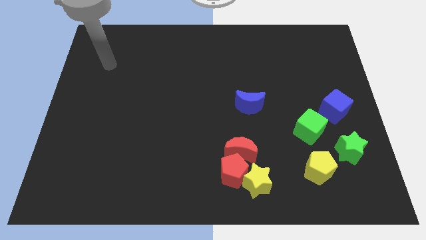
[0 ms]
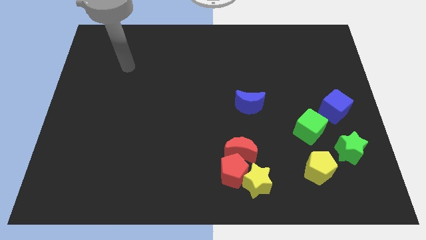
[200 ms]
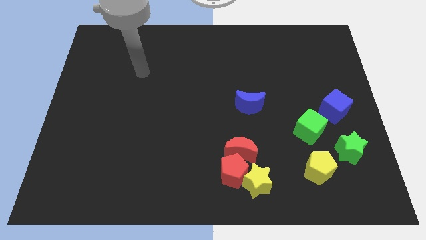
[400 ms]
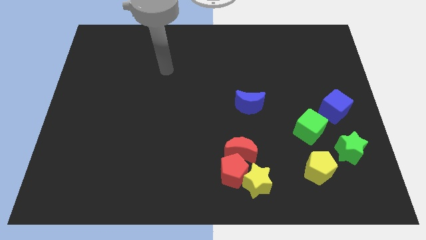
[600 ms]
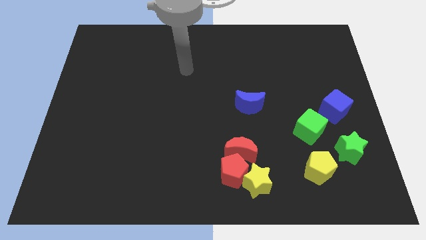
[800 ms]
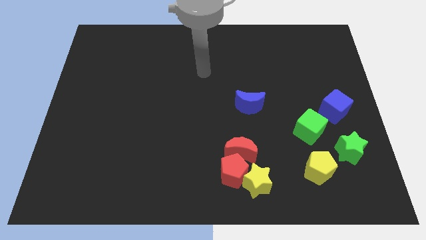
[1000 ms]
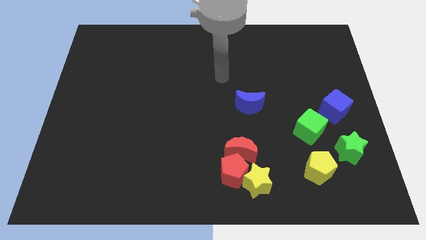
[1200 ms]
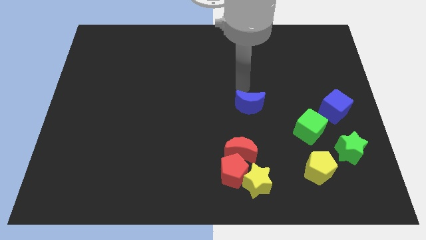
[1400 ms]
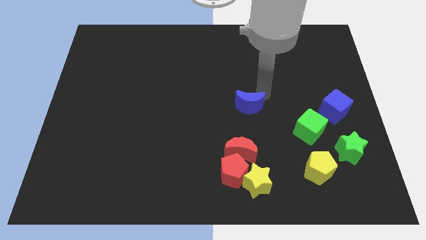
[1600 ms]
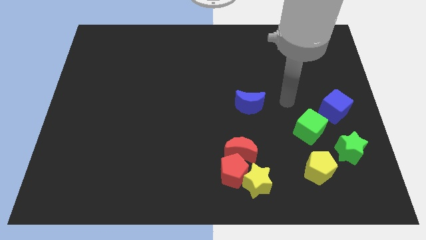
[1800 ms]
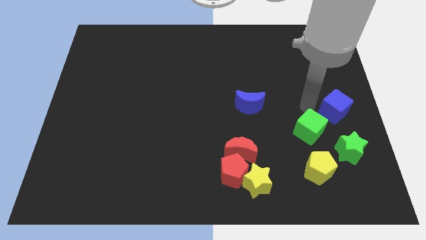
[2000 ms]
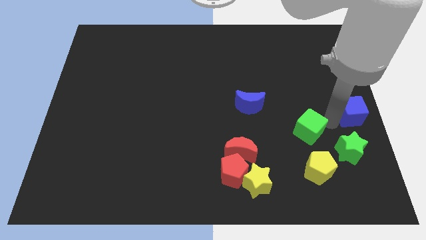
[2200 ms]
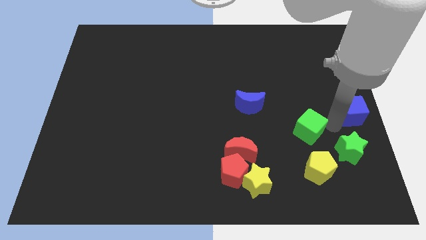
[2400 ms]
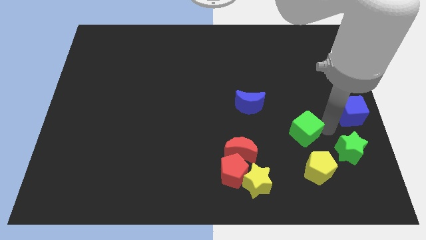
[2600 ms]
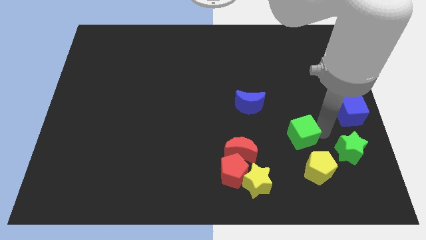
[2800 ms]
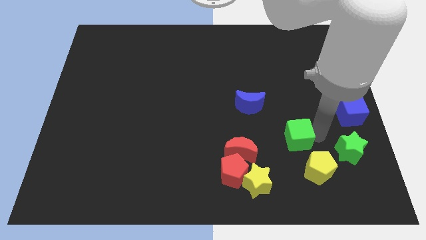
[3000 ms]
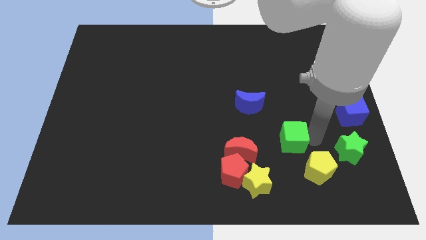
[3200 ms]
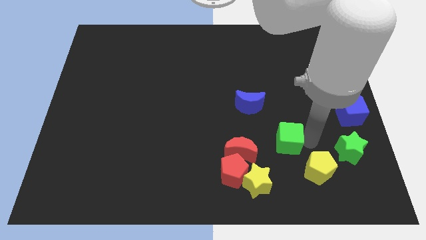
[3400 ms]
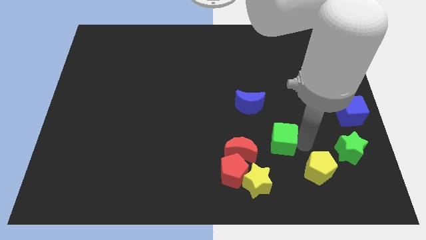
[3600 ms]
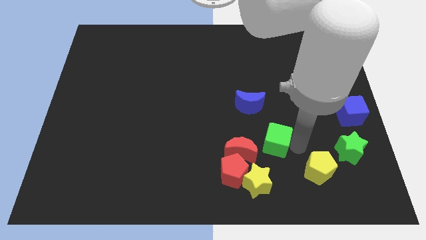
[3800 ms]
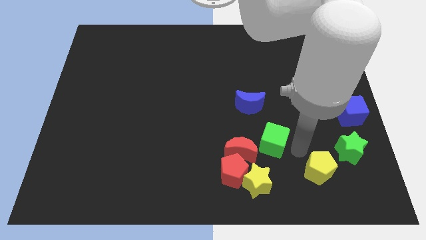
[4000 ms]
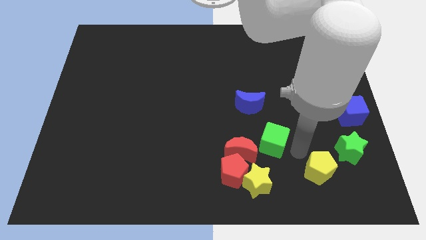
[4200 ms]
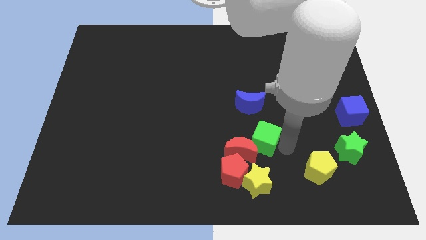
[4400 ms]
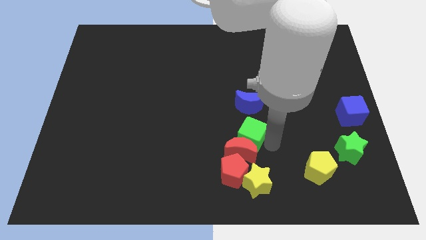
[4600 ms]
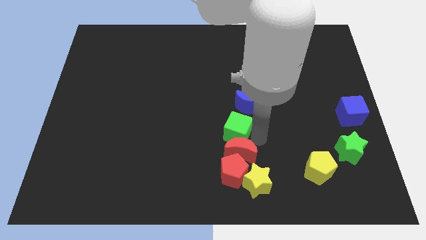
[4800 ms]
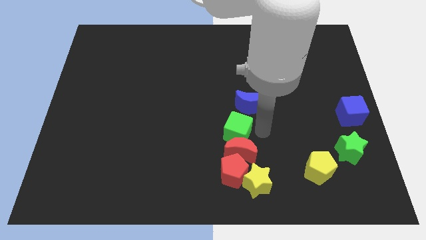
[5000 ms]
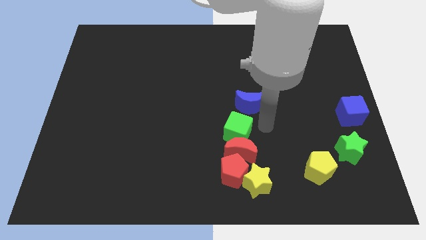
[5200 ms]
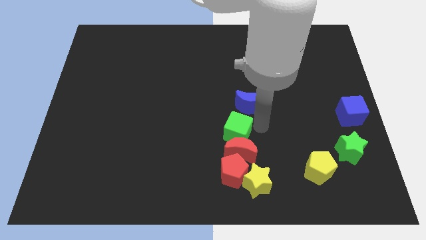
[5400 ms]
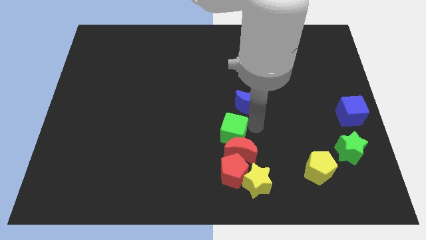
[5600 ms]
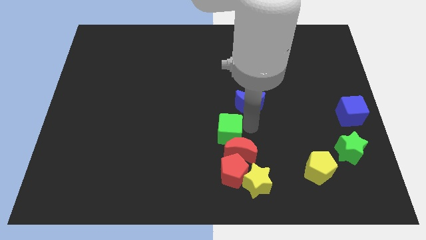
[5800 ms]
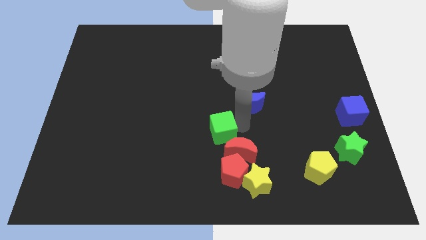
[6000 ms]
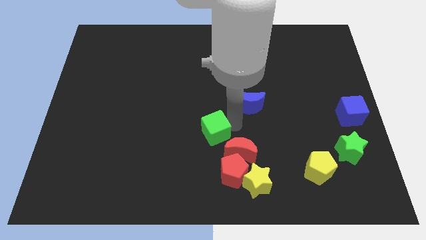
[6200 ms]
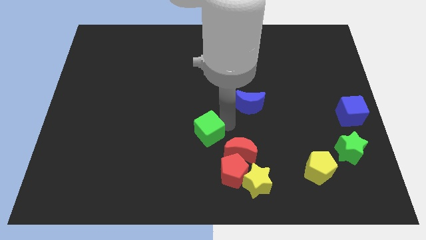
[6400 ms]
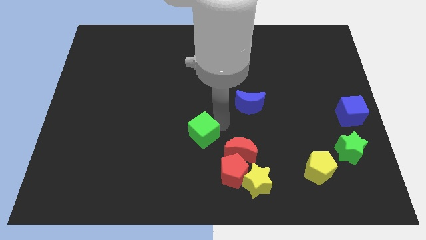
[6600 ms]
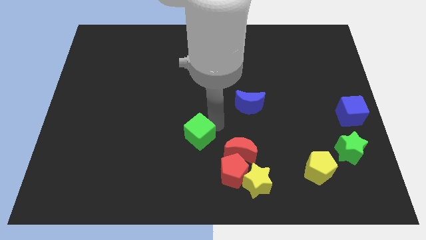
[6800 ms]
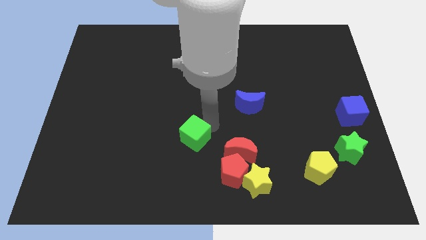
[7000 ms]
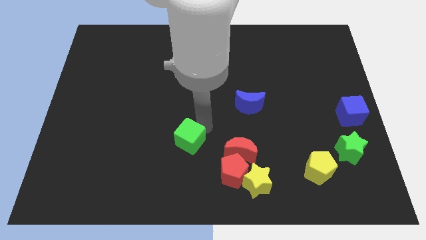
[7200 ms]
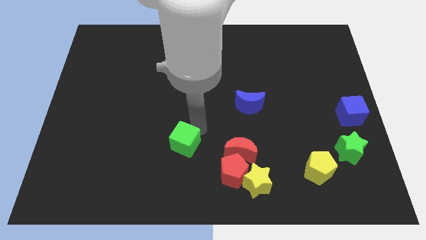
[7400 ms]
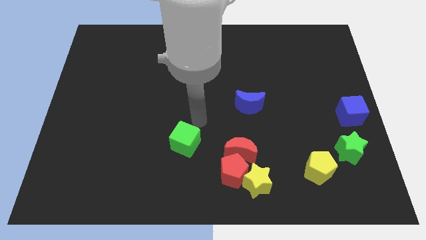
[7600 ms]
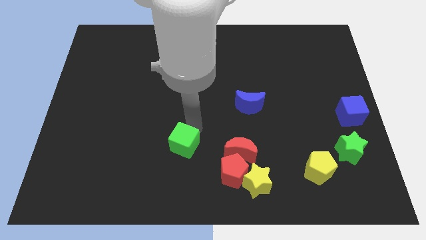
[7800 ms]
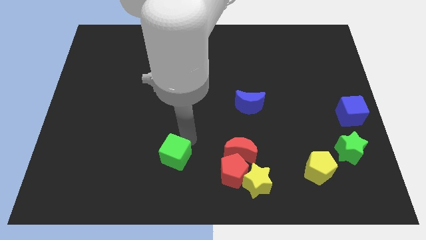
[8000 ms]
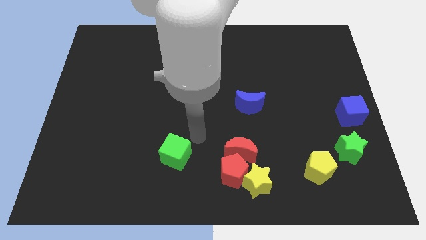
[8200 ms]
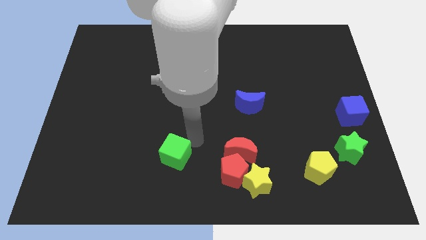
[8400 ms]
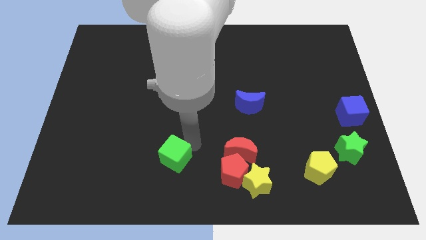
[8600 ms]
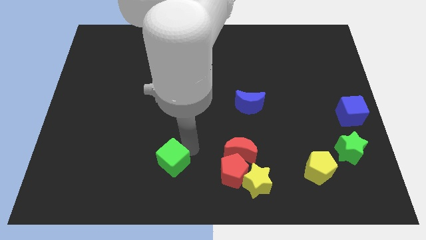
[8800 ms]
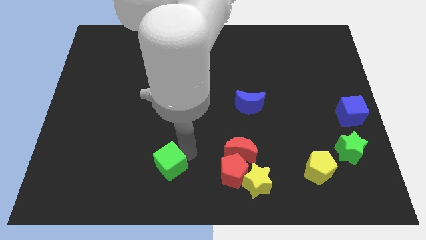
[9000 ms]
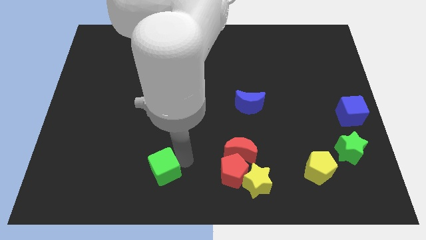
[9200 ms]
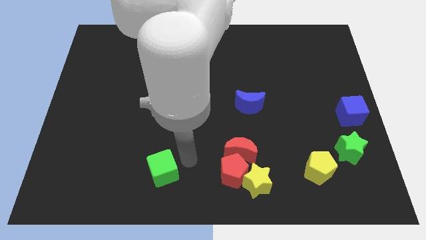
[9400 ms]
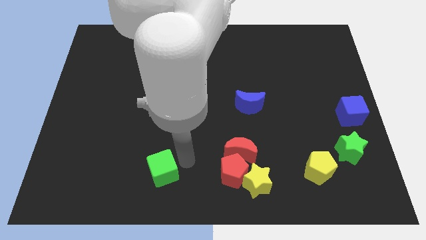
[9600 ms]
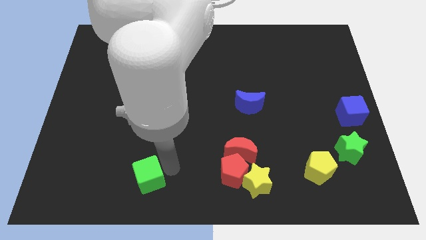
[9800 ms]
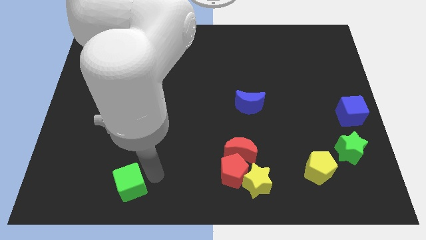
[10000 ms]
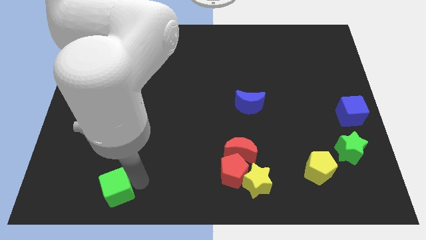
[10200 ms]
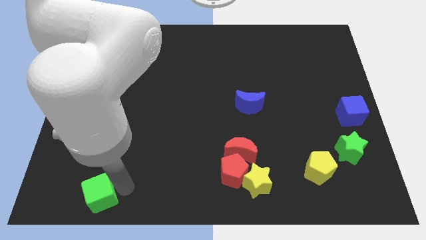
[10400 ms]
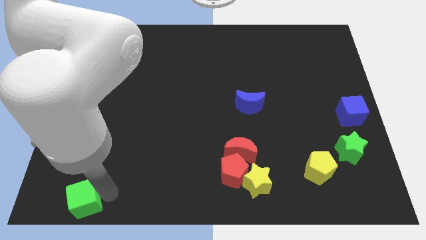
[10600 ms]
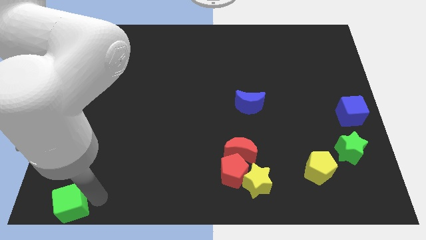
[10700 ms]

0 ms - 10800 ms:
put the green cube to the lower left corner

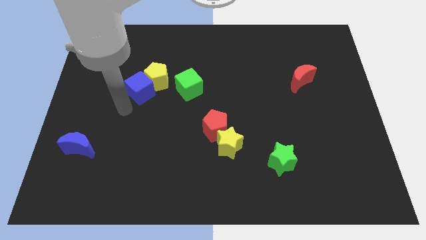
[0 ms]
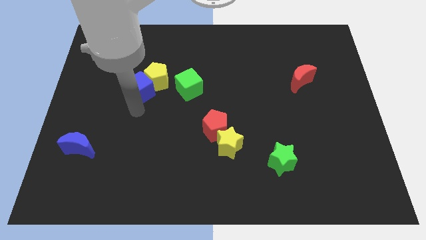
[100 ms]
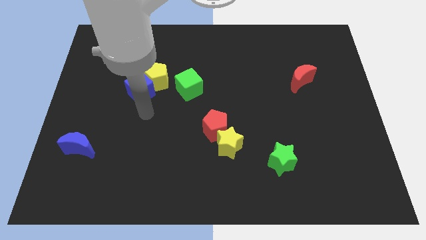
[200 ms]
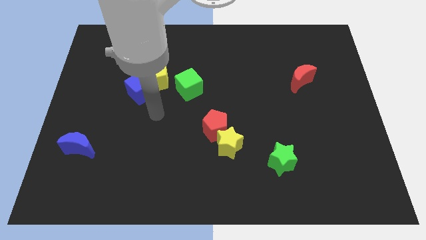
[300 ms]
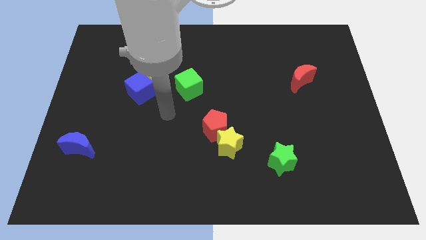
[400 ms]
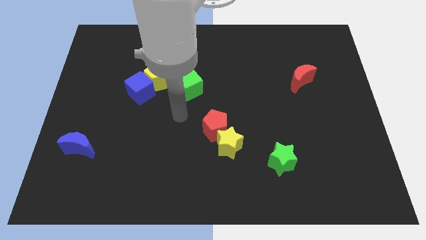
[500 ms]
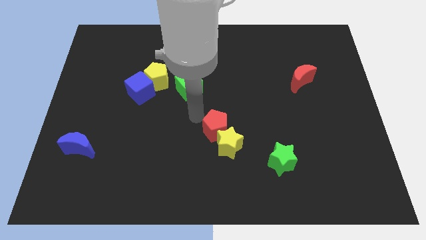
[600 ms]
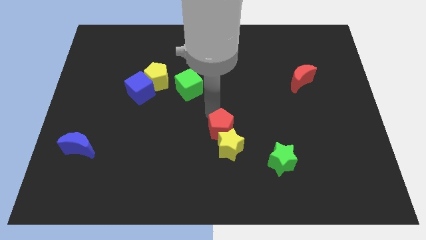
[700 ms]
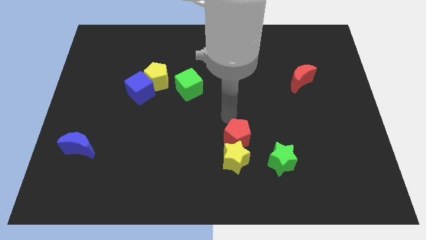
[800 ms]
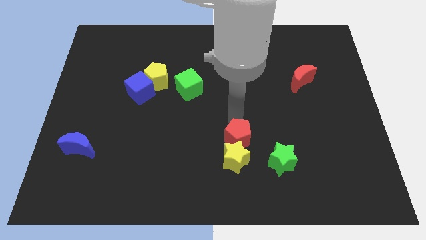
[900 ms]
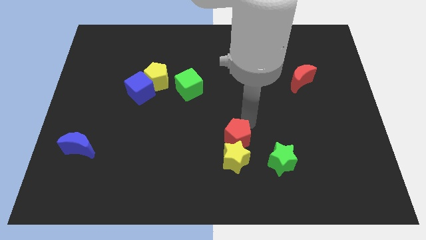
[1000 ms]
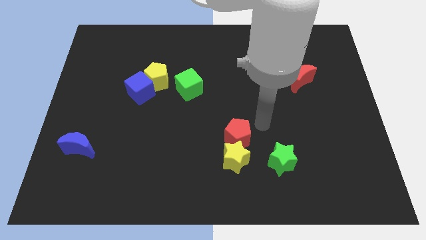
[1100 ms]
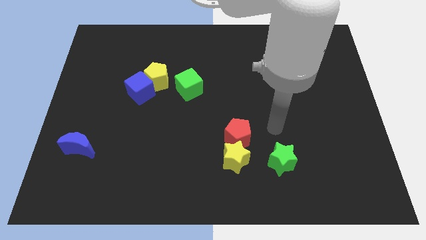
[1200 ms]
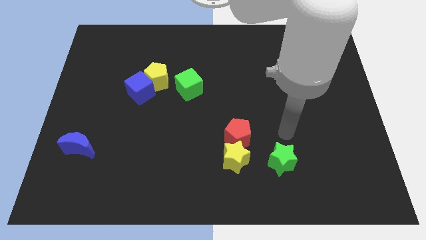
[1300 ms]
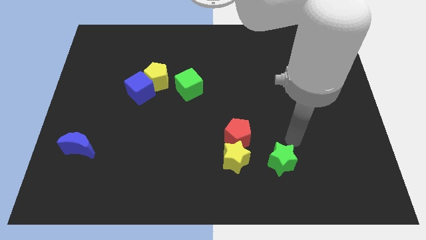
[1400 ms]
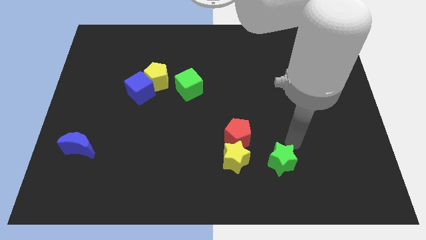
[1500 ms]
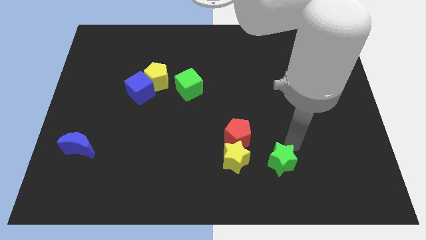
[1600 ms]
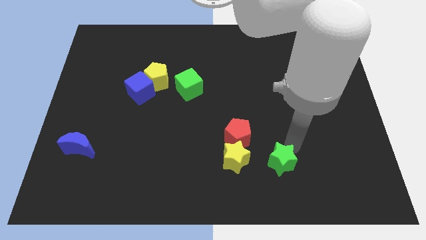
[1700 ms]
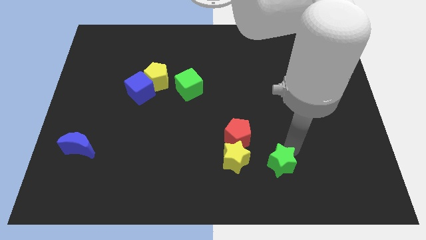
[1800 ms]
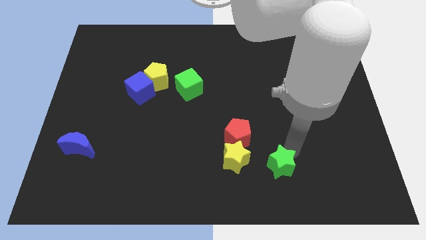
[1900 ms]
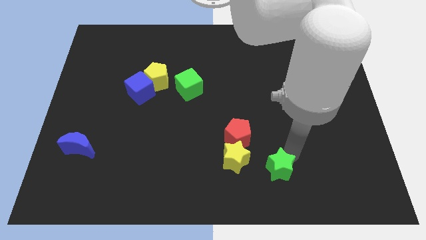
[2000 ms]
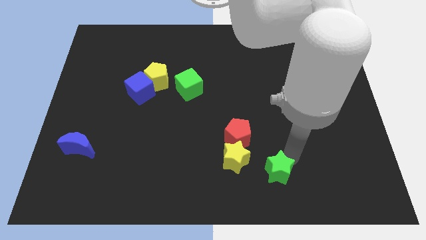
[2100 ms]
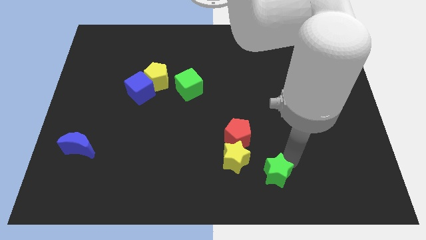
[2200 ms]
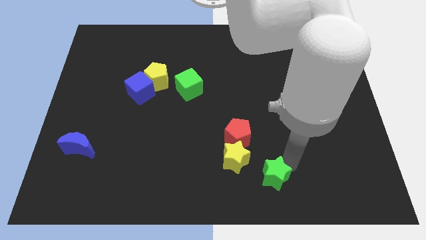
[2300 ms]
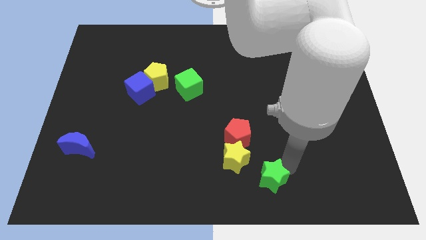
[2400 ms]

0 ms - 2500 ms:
slide the green star to the bottom

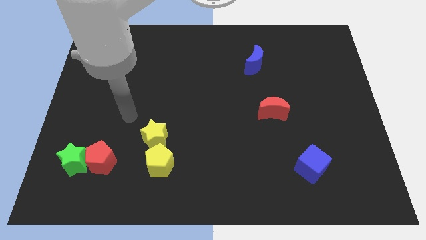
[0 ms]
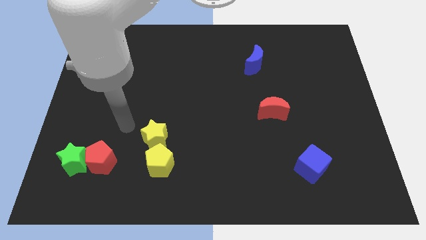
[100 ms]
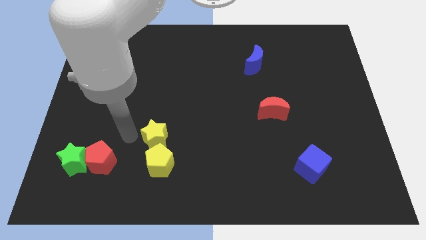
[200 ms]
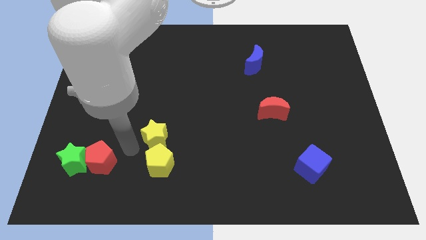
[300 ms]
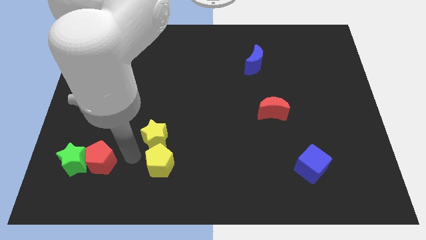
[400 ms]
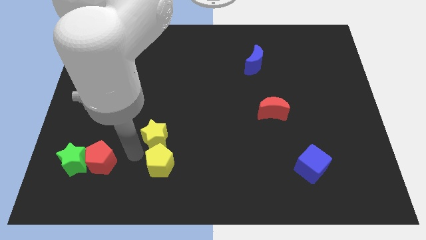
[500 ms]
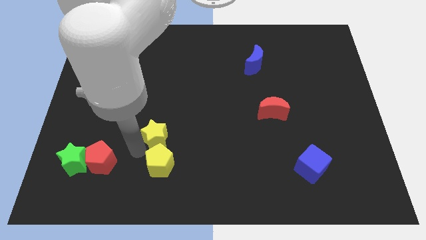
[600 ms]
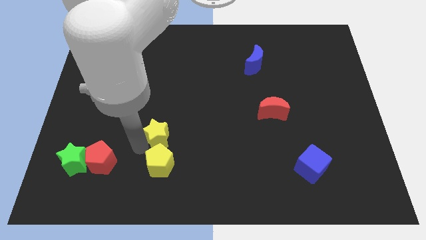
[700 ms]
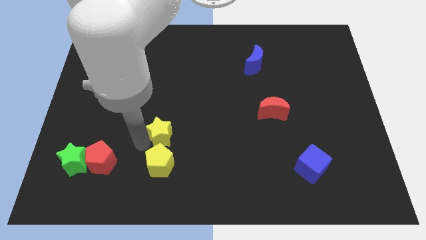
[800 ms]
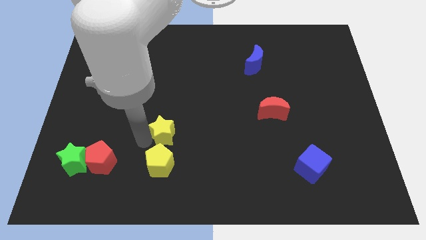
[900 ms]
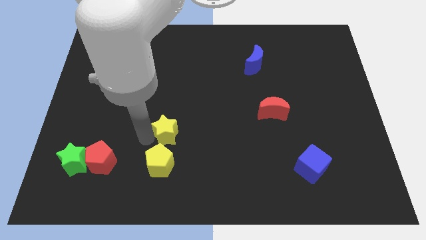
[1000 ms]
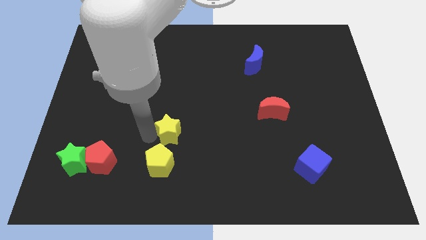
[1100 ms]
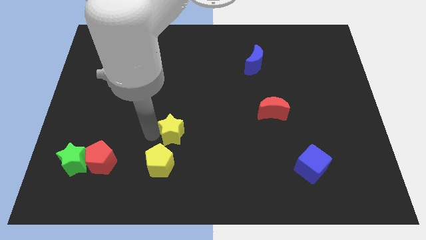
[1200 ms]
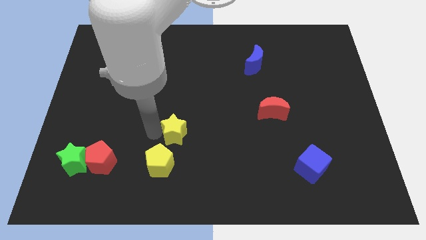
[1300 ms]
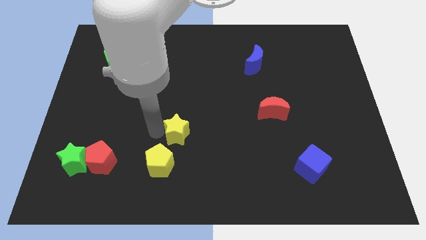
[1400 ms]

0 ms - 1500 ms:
slide the yellow star to the center
